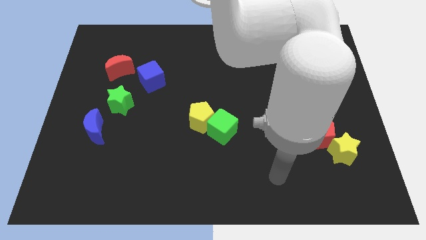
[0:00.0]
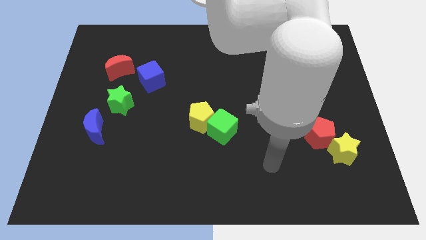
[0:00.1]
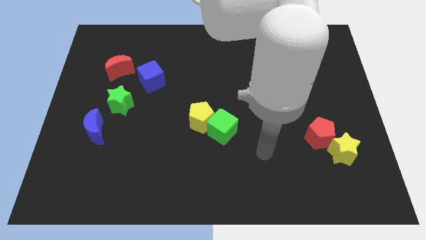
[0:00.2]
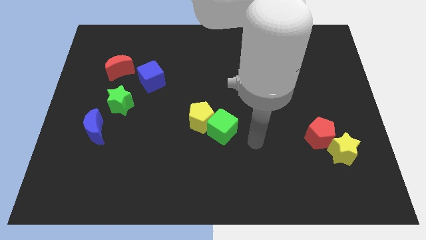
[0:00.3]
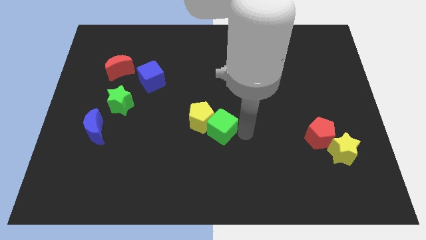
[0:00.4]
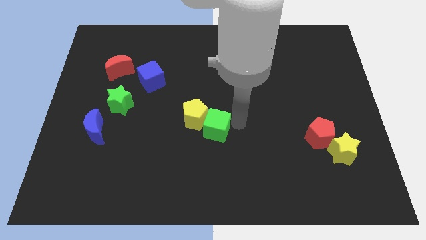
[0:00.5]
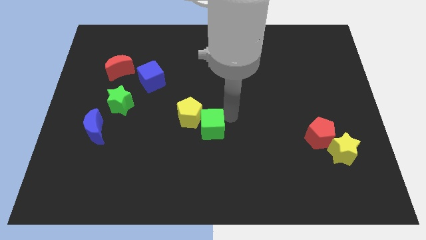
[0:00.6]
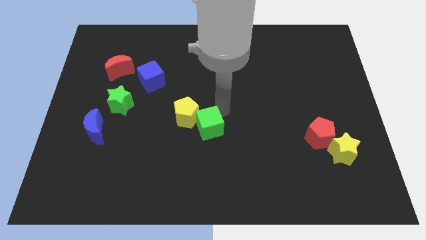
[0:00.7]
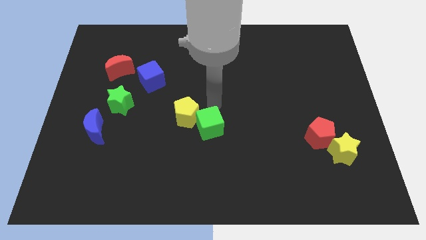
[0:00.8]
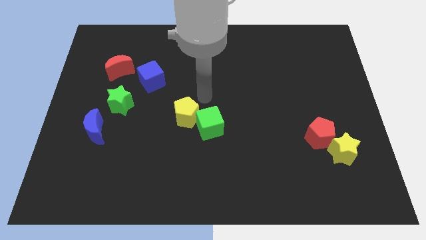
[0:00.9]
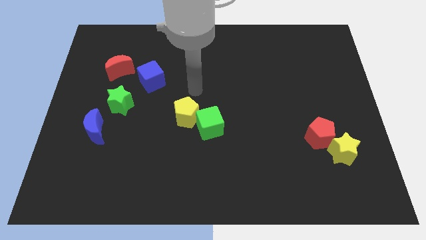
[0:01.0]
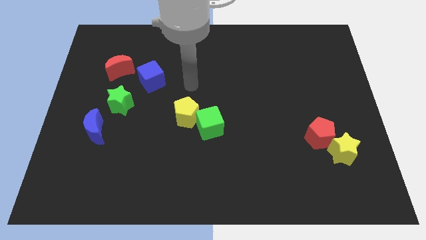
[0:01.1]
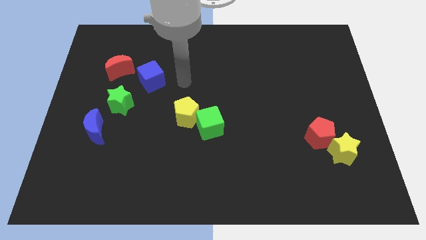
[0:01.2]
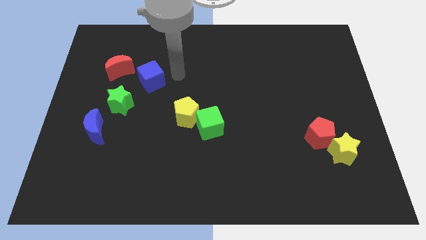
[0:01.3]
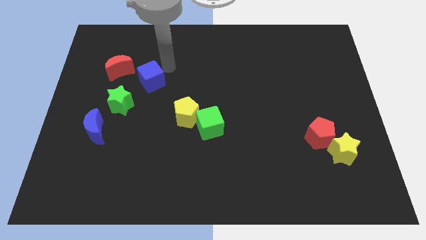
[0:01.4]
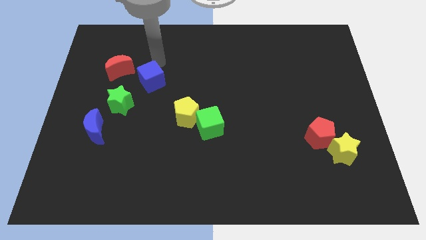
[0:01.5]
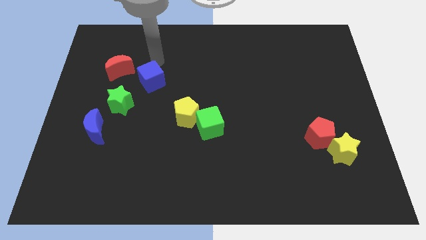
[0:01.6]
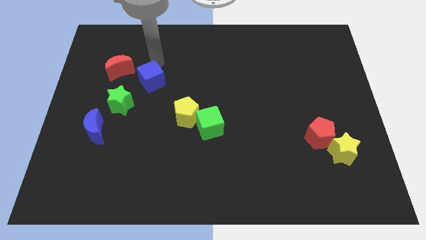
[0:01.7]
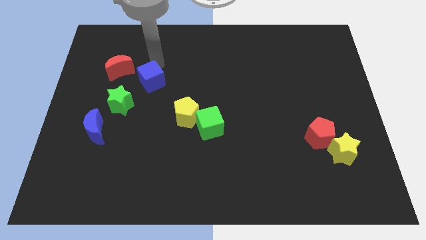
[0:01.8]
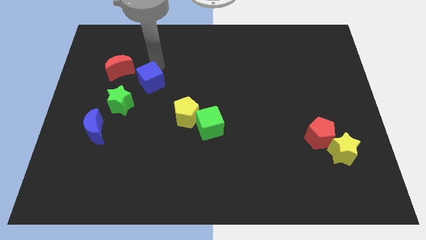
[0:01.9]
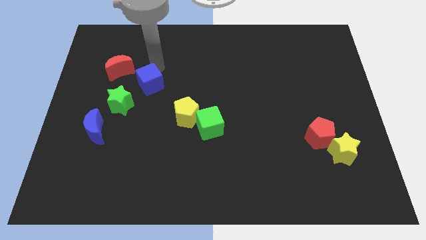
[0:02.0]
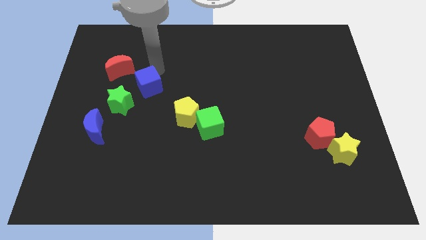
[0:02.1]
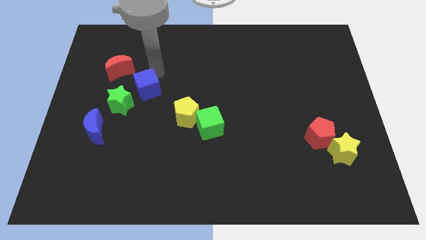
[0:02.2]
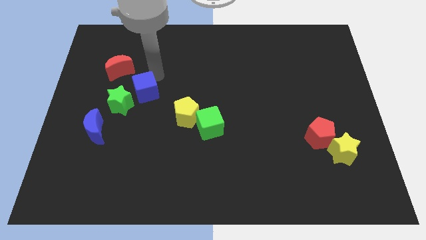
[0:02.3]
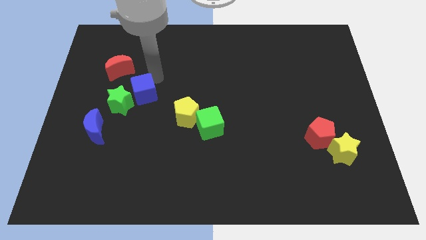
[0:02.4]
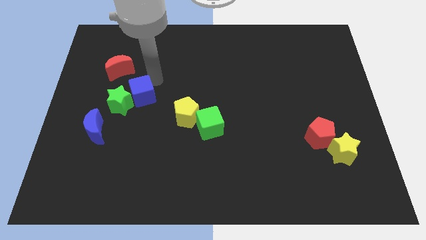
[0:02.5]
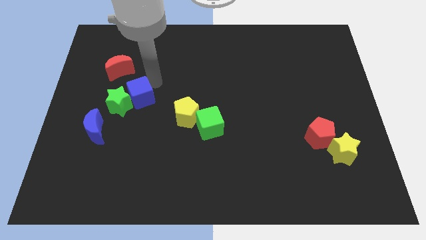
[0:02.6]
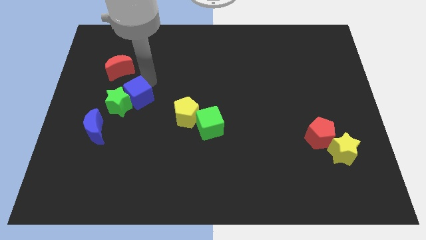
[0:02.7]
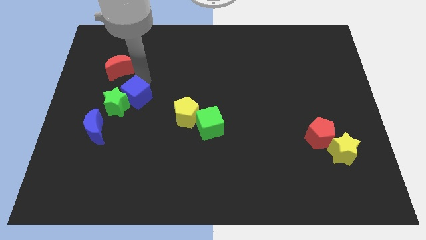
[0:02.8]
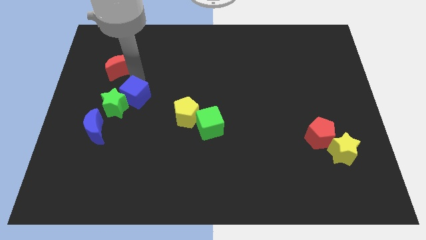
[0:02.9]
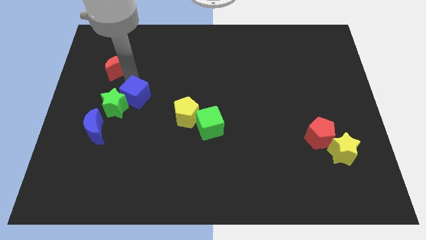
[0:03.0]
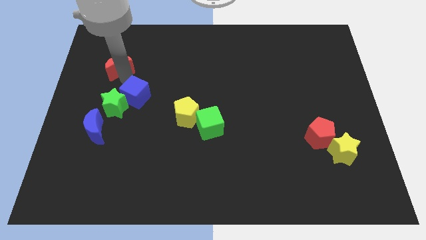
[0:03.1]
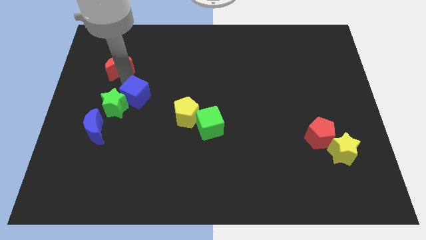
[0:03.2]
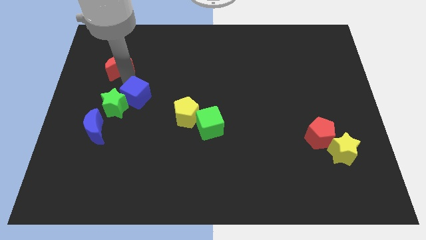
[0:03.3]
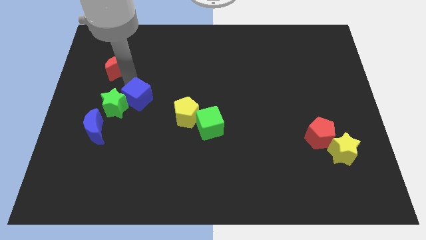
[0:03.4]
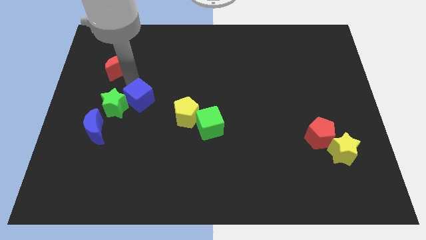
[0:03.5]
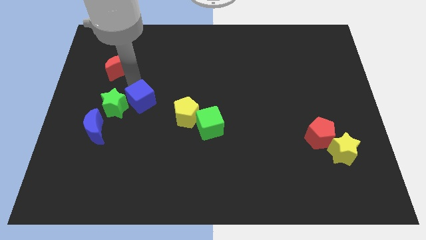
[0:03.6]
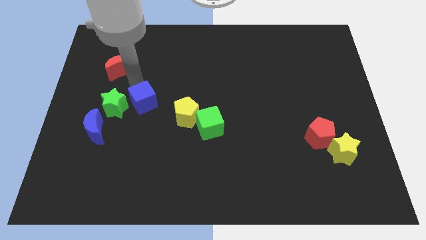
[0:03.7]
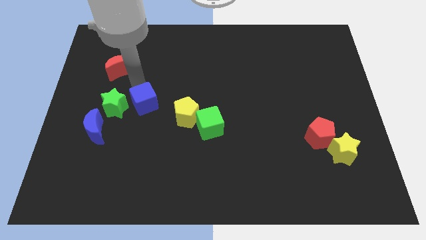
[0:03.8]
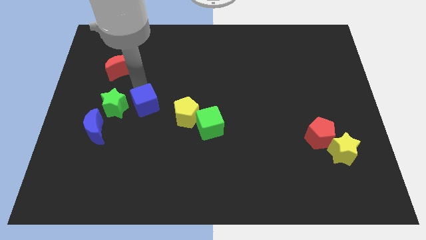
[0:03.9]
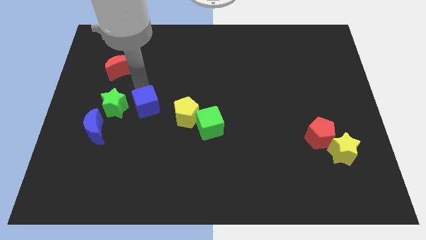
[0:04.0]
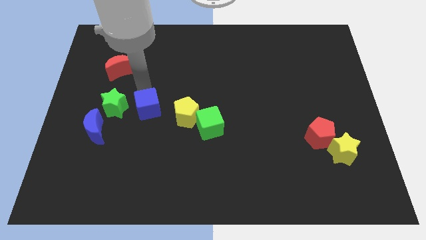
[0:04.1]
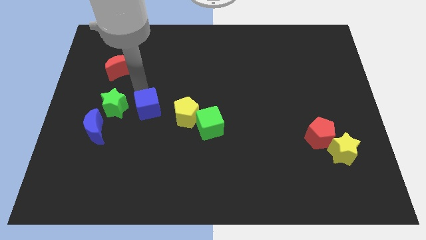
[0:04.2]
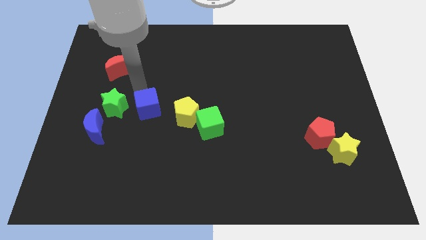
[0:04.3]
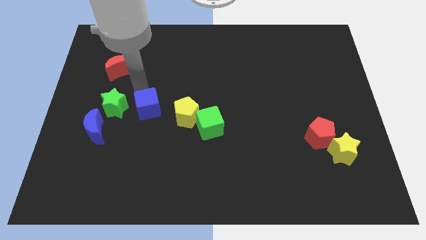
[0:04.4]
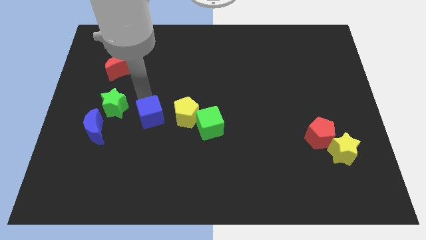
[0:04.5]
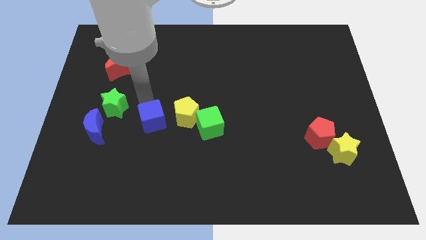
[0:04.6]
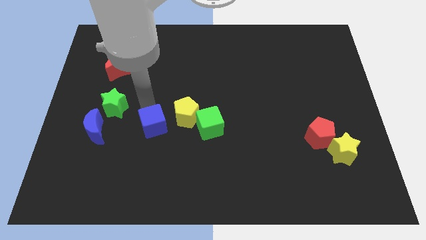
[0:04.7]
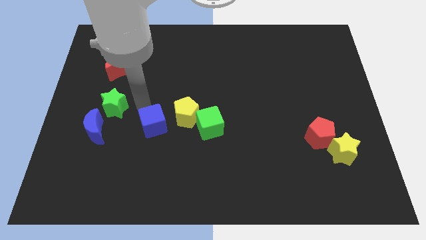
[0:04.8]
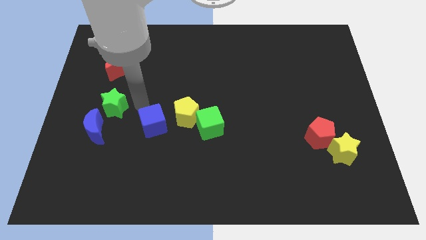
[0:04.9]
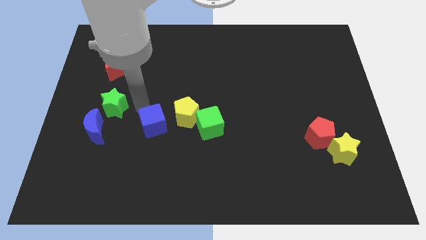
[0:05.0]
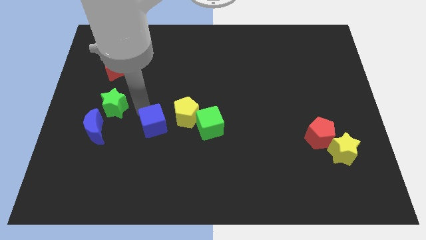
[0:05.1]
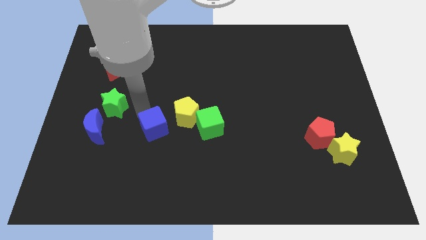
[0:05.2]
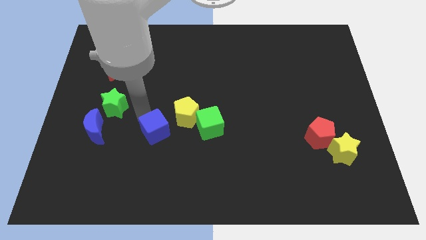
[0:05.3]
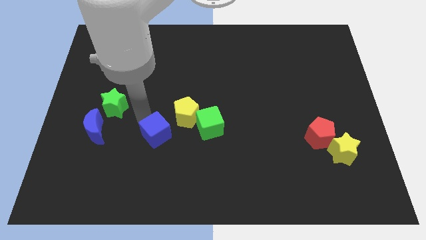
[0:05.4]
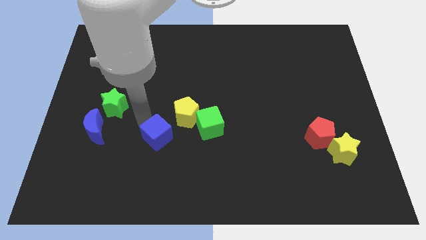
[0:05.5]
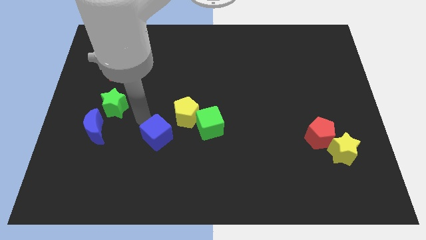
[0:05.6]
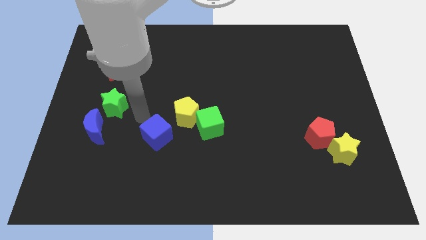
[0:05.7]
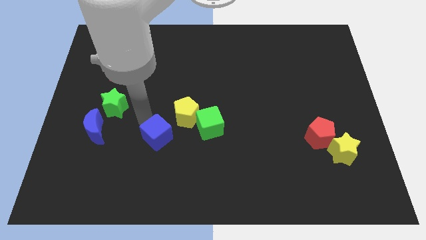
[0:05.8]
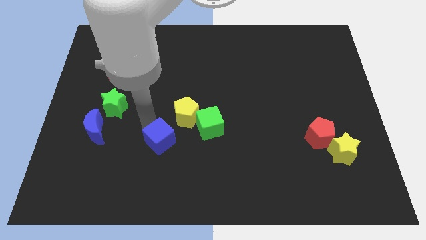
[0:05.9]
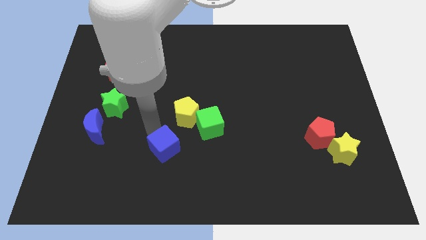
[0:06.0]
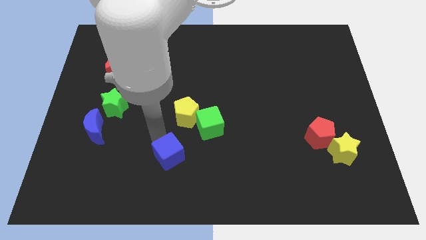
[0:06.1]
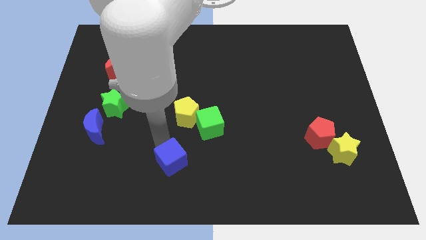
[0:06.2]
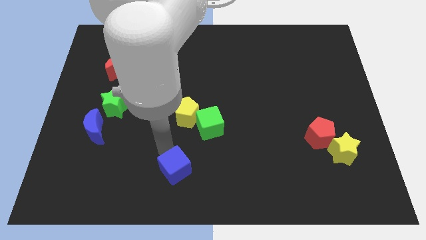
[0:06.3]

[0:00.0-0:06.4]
push the blue cube to the bottom

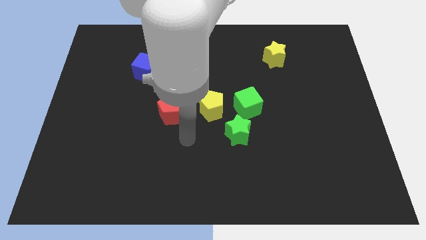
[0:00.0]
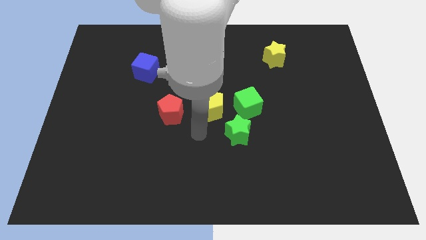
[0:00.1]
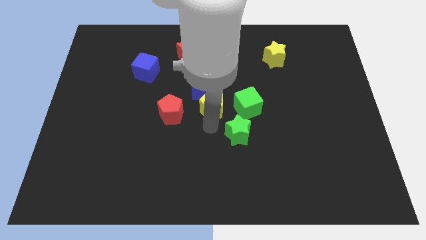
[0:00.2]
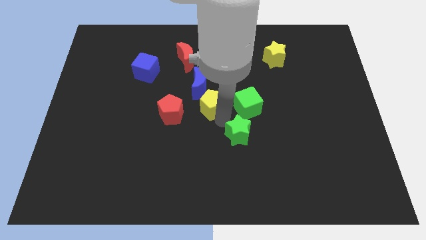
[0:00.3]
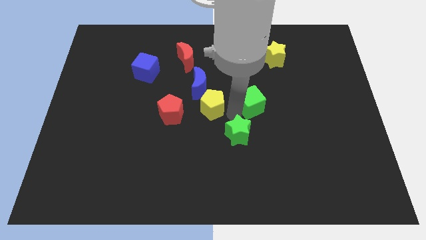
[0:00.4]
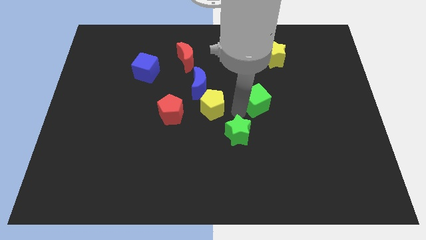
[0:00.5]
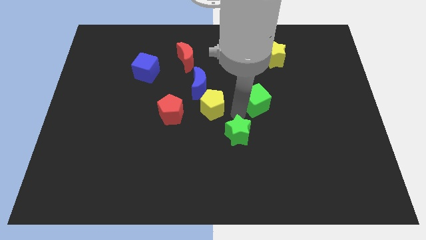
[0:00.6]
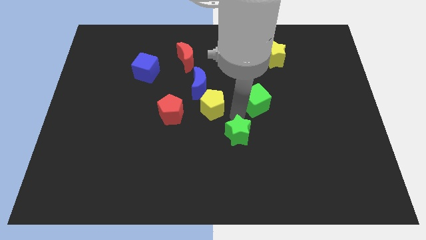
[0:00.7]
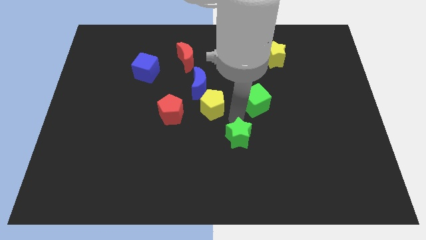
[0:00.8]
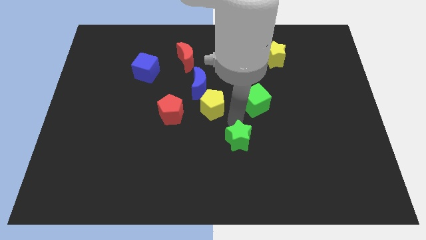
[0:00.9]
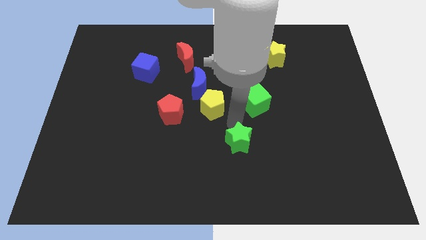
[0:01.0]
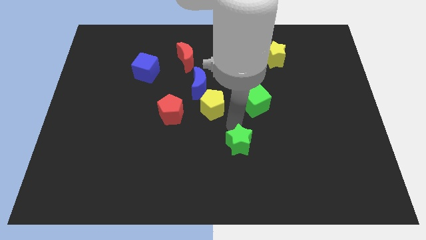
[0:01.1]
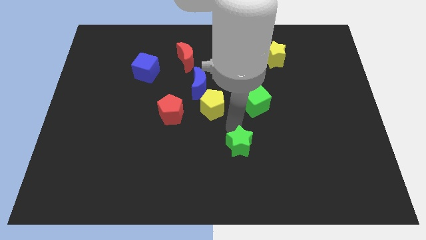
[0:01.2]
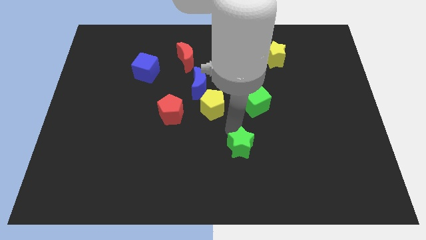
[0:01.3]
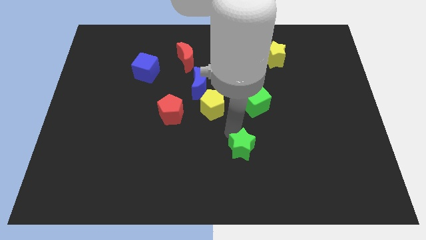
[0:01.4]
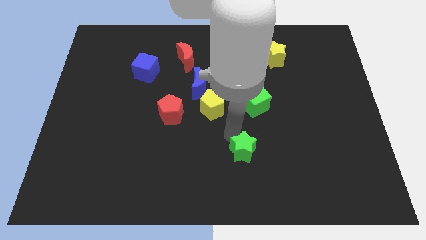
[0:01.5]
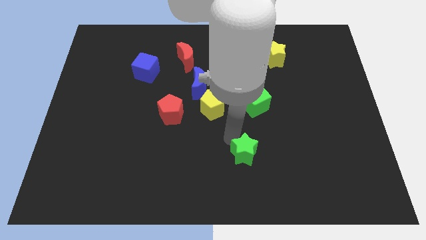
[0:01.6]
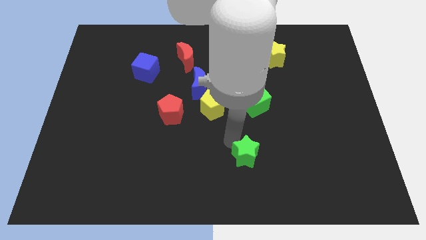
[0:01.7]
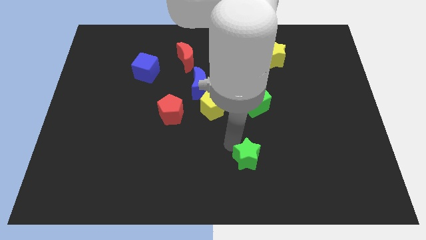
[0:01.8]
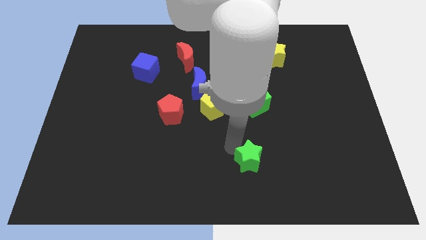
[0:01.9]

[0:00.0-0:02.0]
put the green star to the bottom
